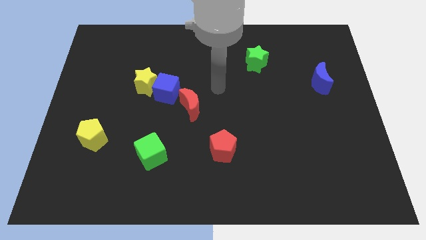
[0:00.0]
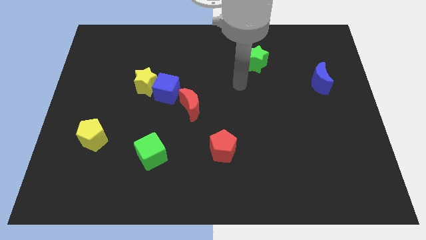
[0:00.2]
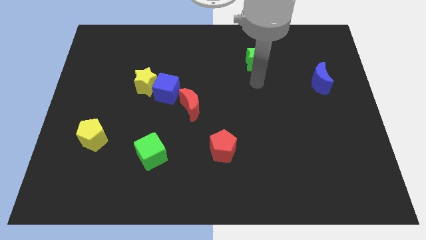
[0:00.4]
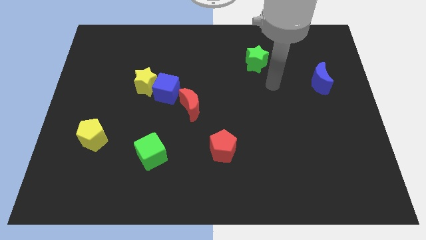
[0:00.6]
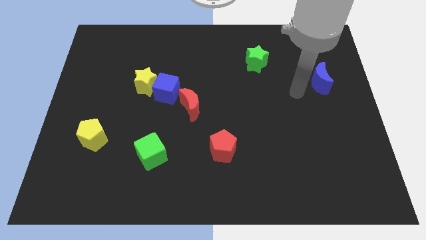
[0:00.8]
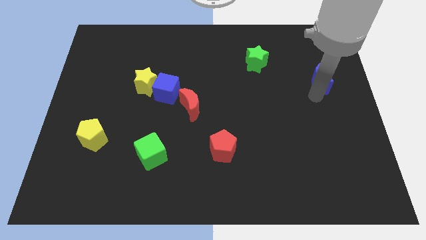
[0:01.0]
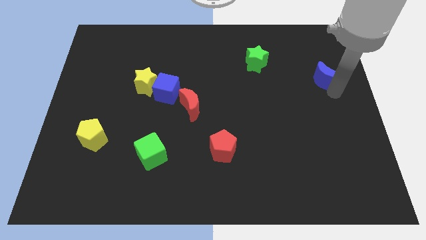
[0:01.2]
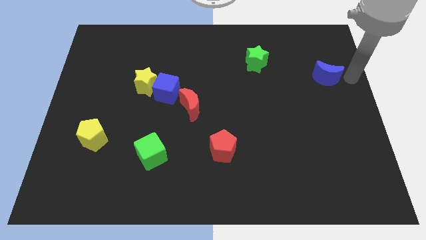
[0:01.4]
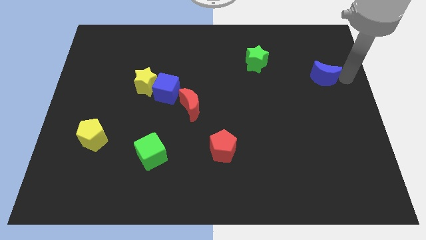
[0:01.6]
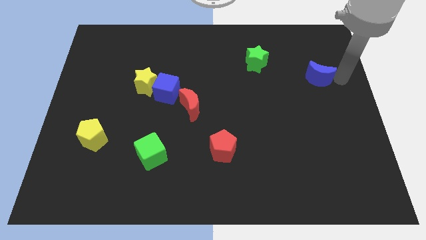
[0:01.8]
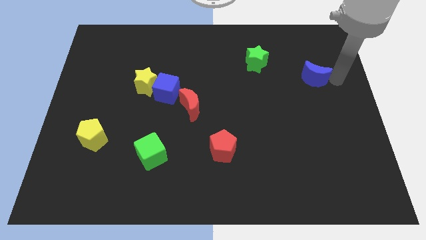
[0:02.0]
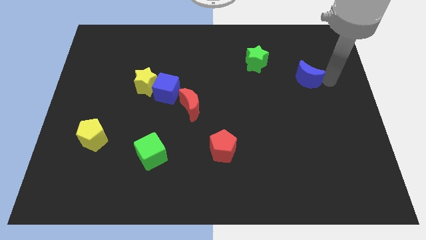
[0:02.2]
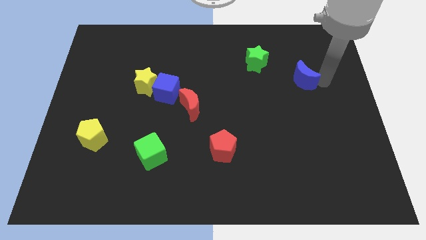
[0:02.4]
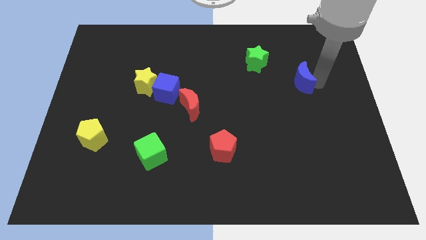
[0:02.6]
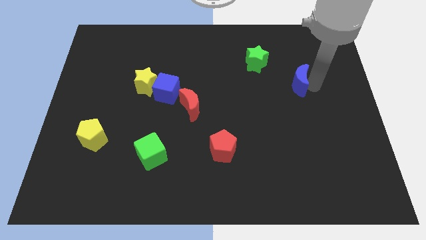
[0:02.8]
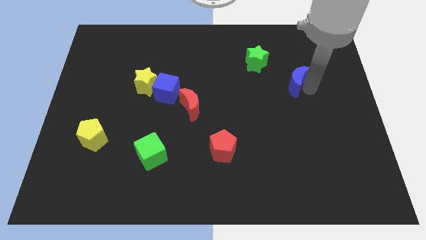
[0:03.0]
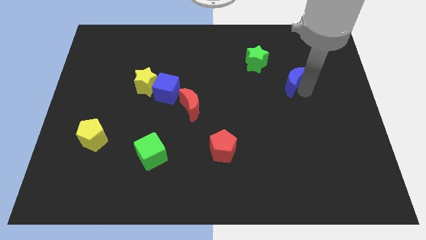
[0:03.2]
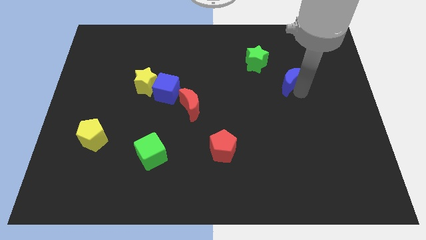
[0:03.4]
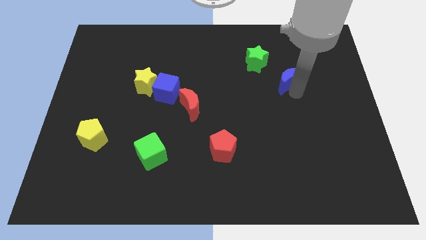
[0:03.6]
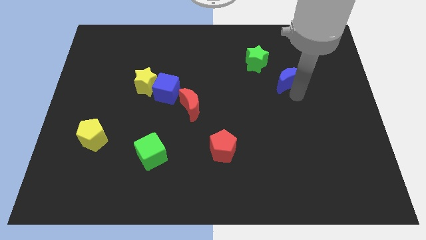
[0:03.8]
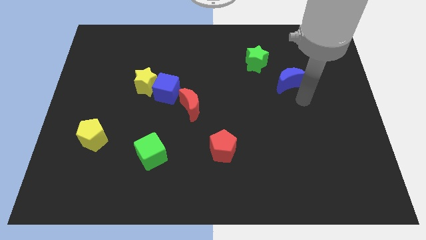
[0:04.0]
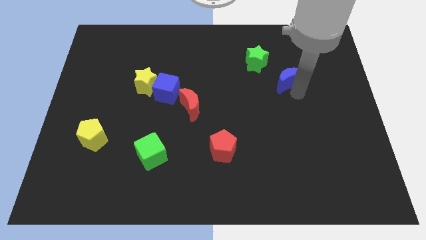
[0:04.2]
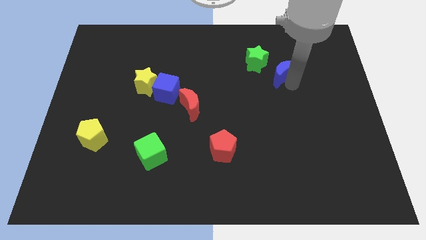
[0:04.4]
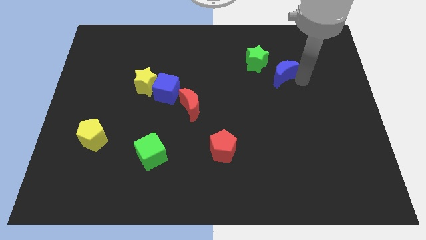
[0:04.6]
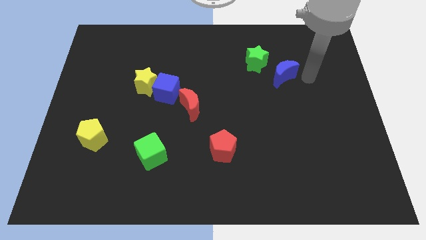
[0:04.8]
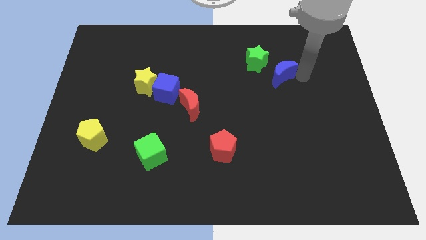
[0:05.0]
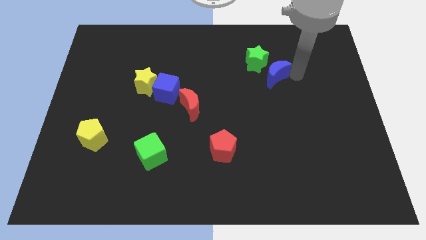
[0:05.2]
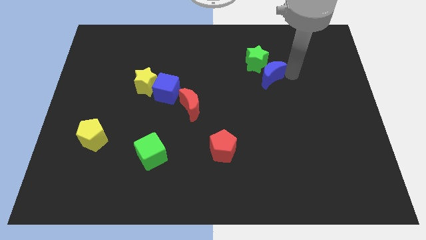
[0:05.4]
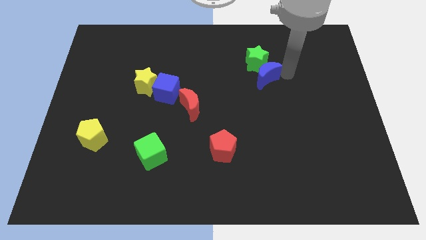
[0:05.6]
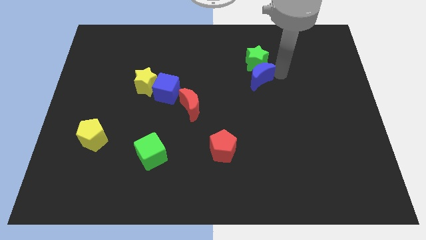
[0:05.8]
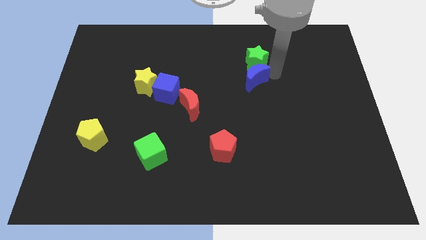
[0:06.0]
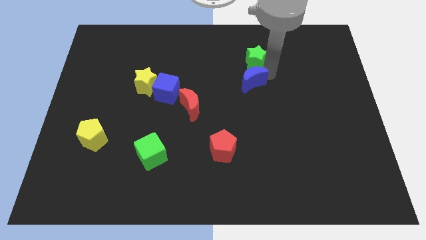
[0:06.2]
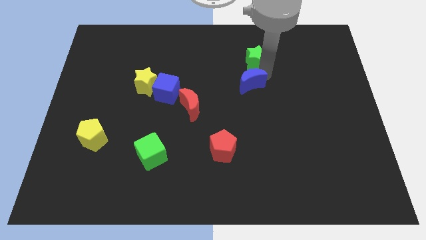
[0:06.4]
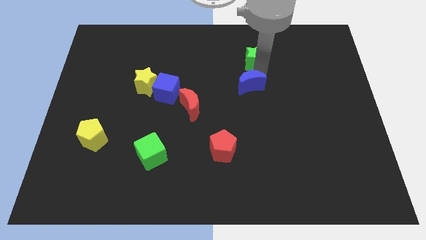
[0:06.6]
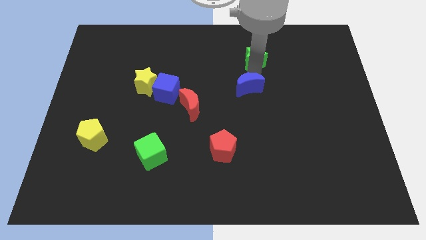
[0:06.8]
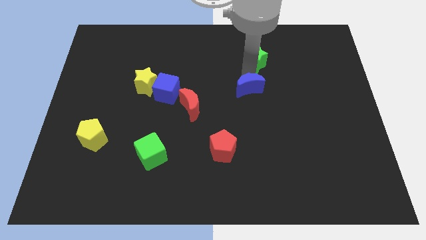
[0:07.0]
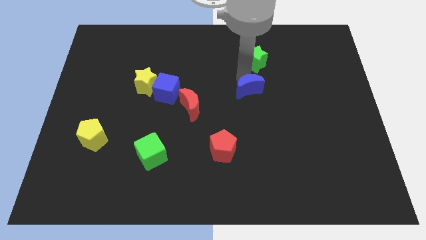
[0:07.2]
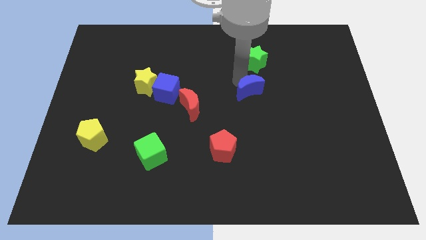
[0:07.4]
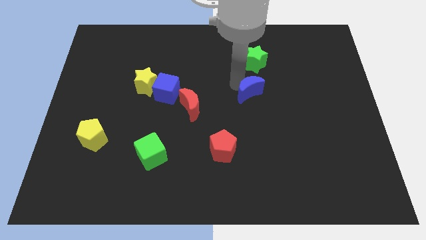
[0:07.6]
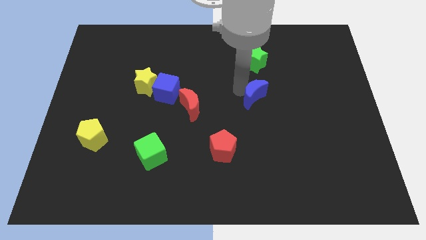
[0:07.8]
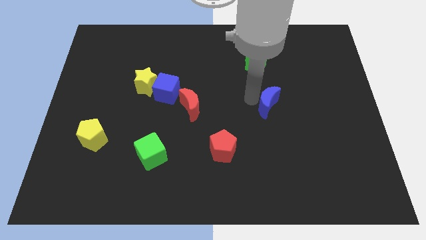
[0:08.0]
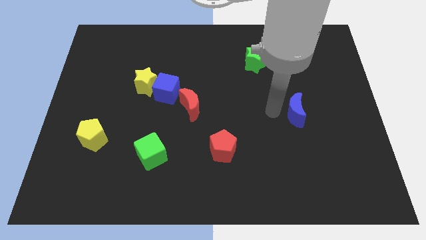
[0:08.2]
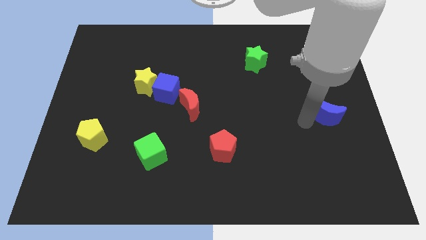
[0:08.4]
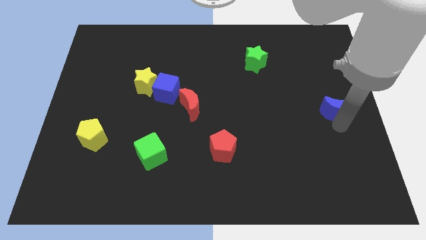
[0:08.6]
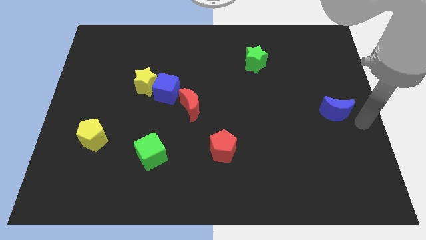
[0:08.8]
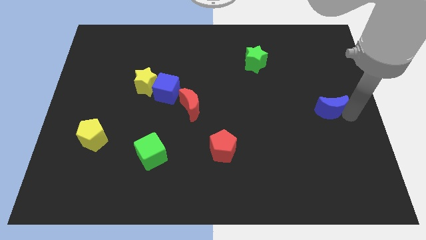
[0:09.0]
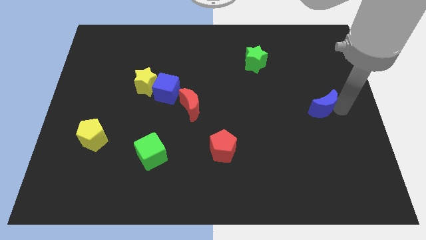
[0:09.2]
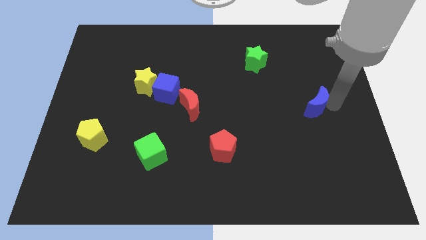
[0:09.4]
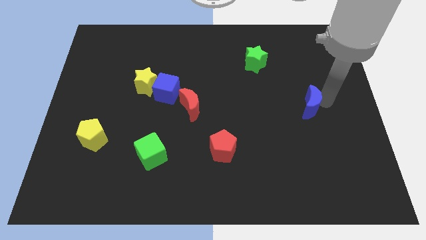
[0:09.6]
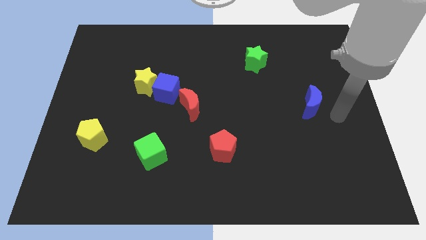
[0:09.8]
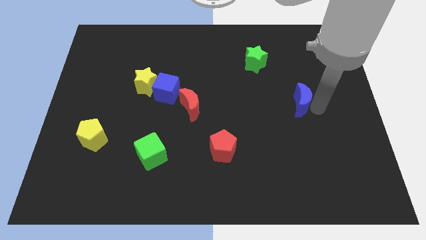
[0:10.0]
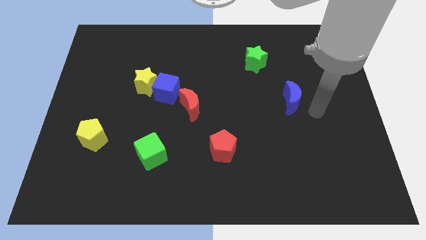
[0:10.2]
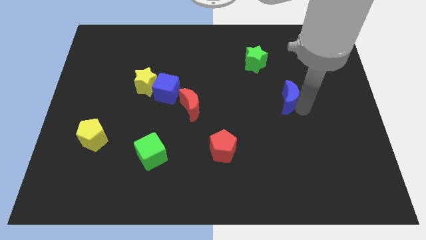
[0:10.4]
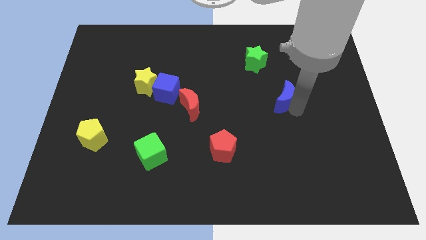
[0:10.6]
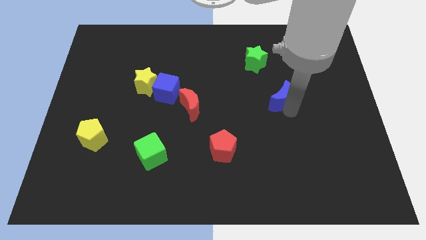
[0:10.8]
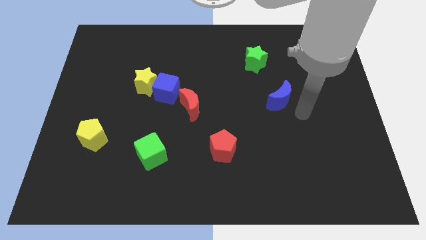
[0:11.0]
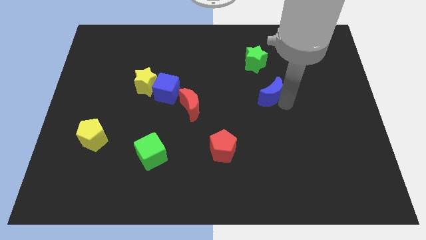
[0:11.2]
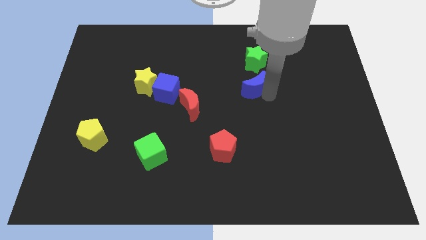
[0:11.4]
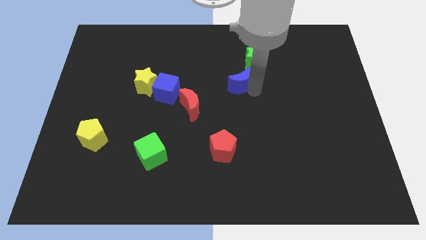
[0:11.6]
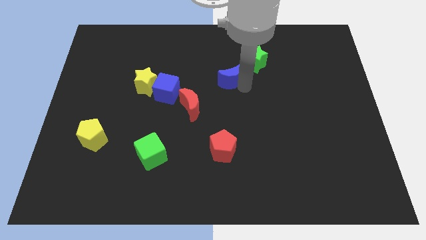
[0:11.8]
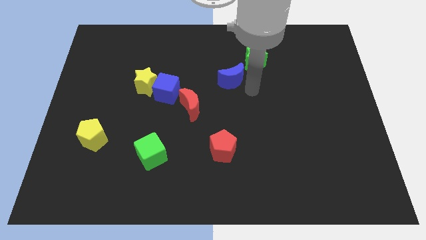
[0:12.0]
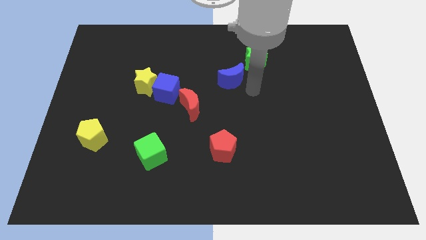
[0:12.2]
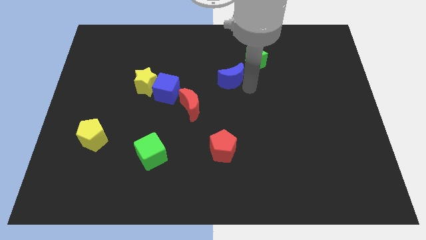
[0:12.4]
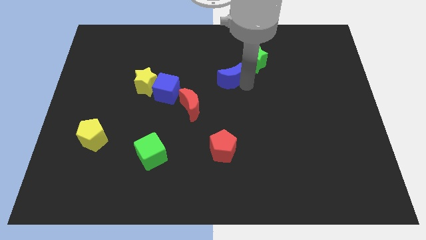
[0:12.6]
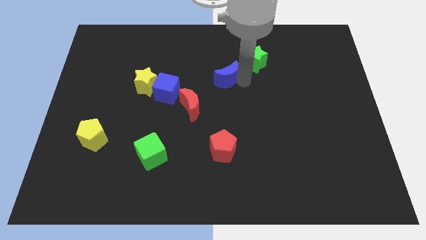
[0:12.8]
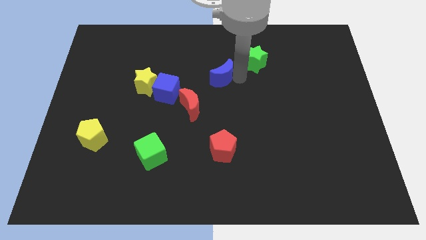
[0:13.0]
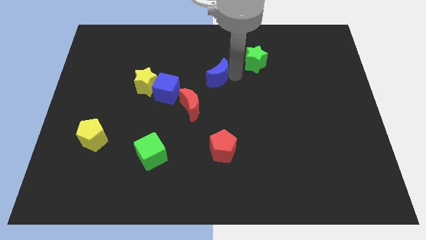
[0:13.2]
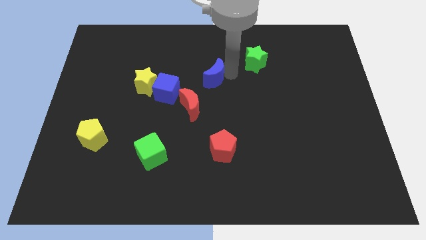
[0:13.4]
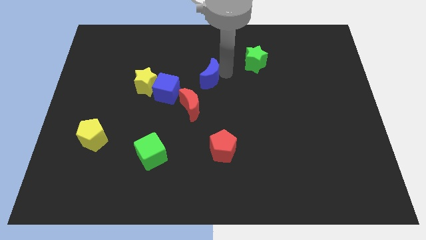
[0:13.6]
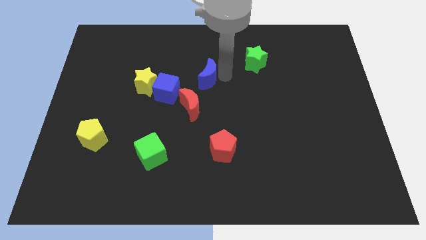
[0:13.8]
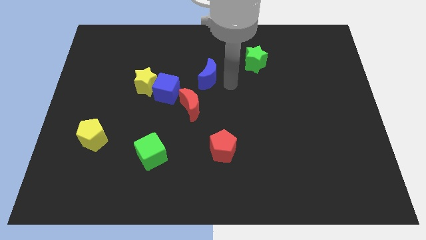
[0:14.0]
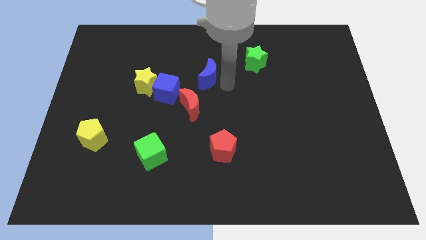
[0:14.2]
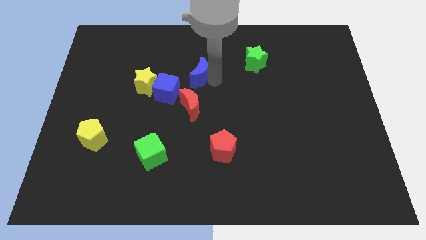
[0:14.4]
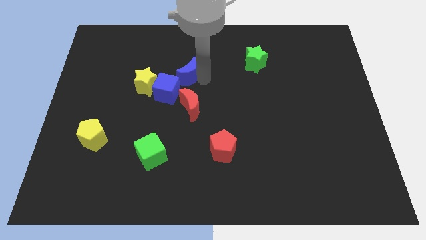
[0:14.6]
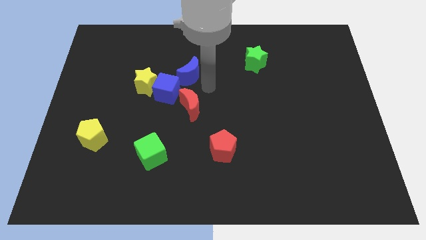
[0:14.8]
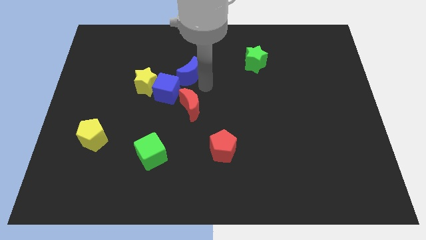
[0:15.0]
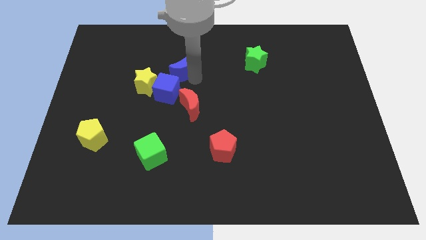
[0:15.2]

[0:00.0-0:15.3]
move the blue moon to the top of the blue cube

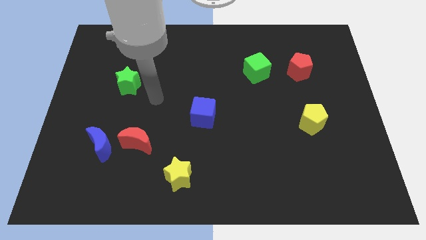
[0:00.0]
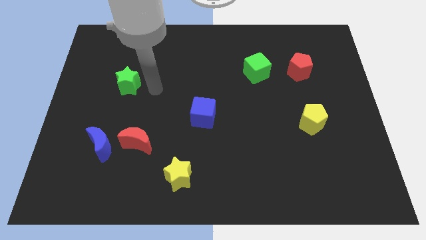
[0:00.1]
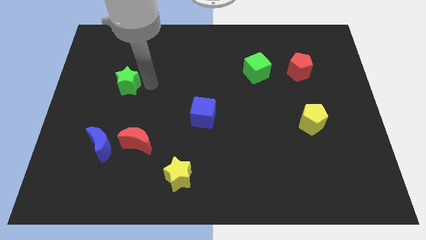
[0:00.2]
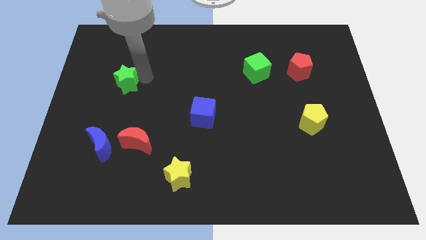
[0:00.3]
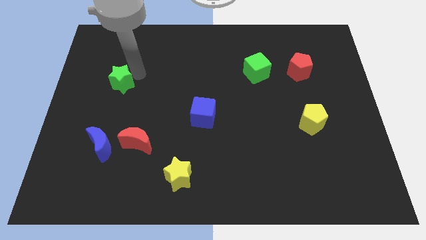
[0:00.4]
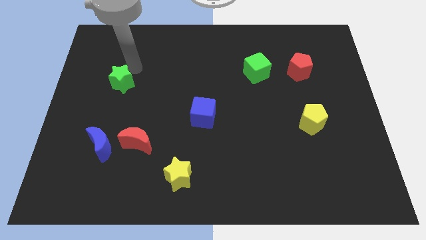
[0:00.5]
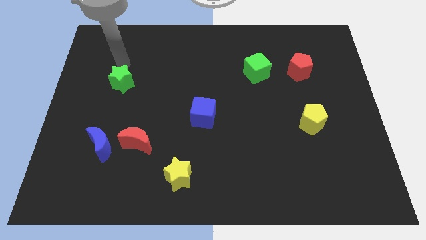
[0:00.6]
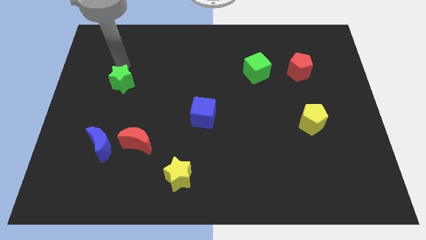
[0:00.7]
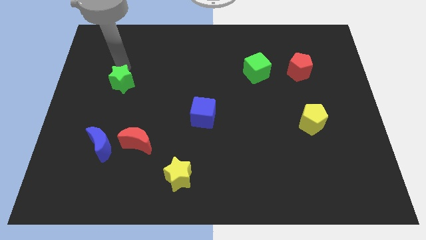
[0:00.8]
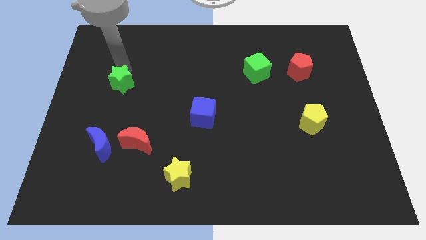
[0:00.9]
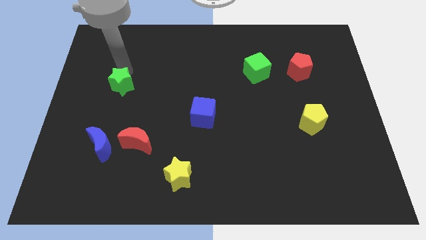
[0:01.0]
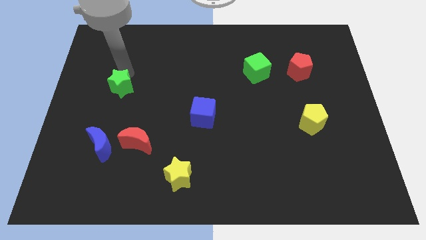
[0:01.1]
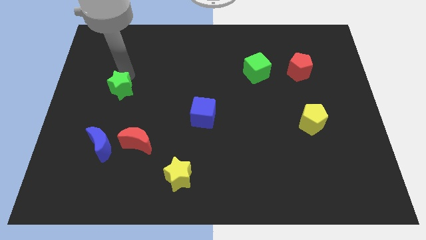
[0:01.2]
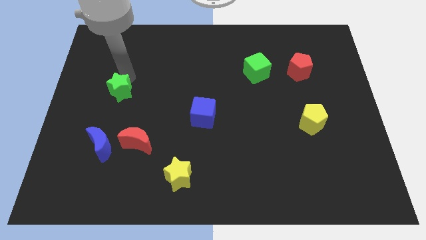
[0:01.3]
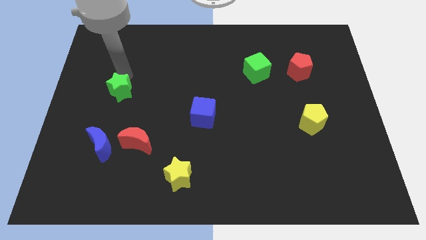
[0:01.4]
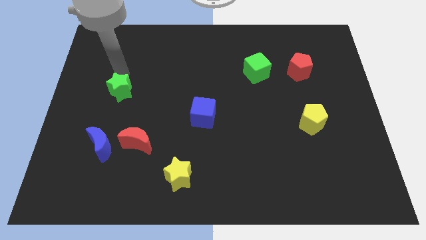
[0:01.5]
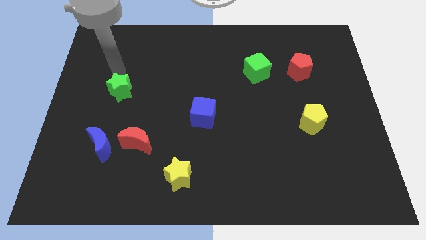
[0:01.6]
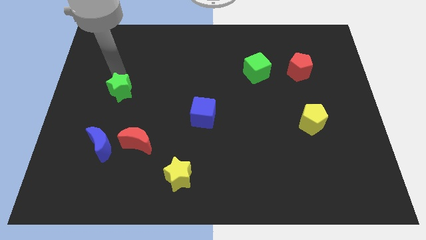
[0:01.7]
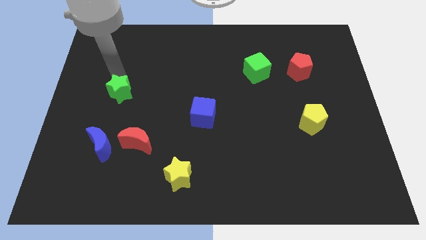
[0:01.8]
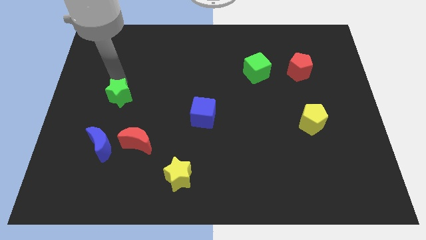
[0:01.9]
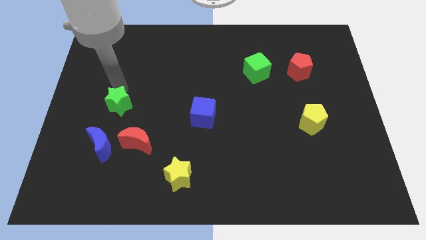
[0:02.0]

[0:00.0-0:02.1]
push the green star to the top left of the red moon
